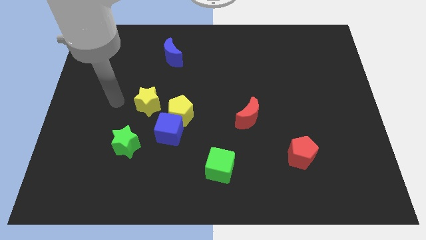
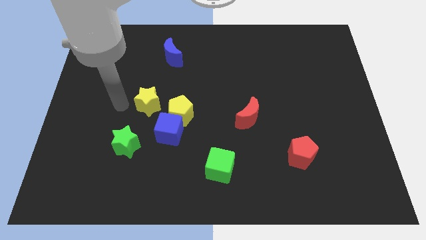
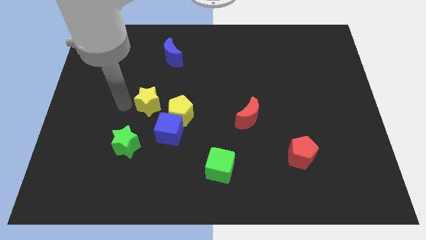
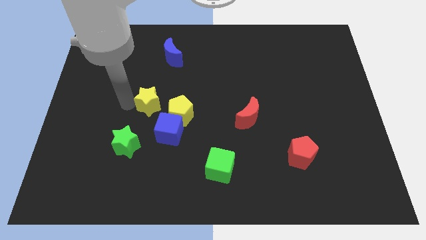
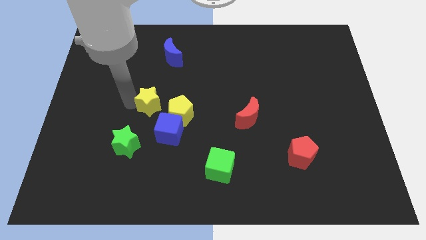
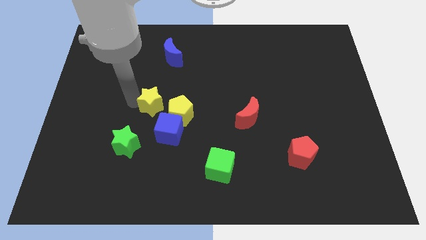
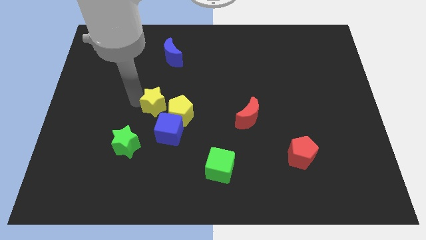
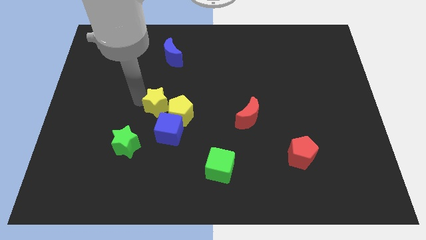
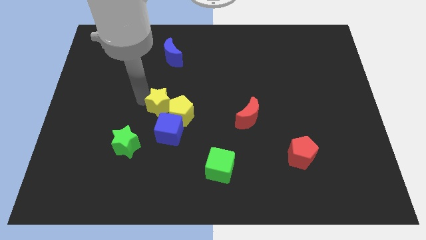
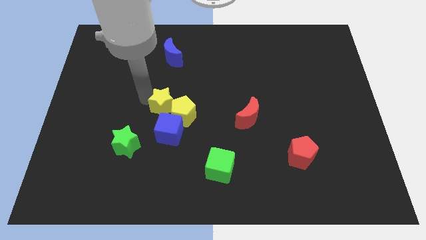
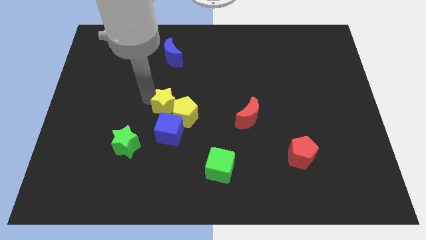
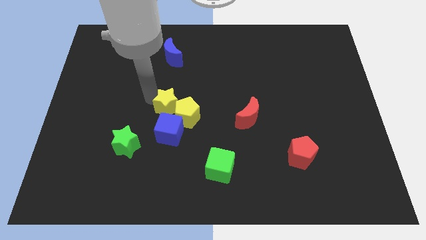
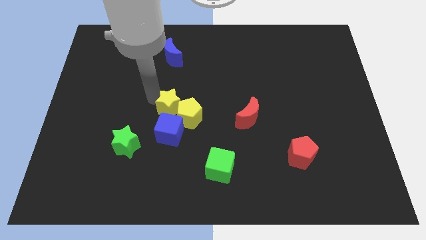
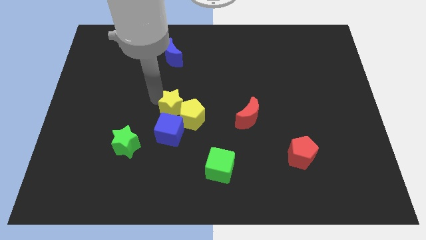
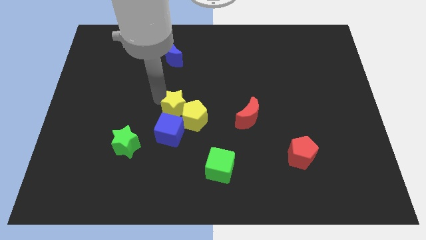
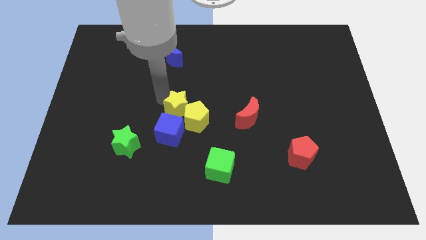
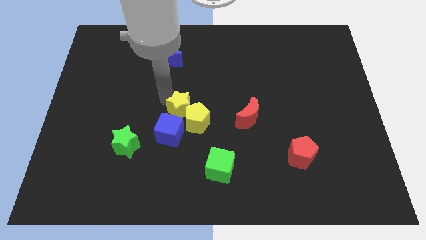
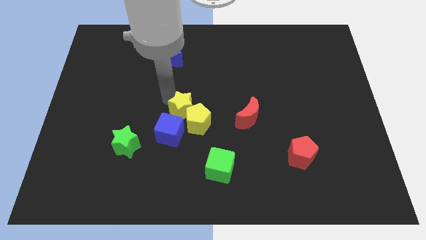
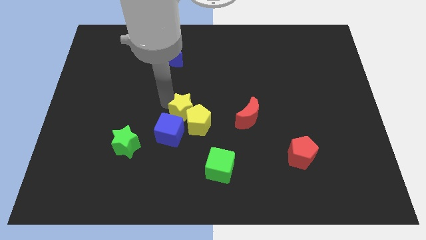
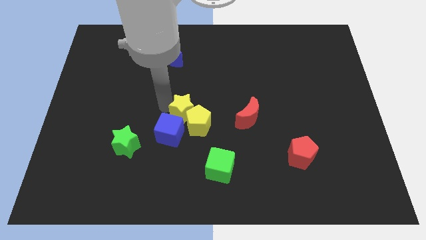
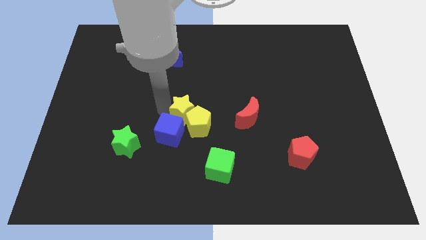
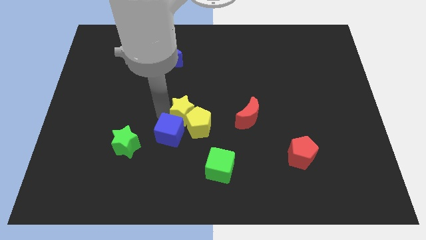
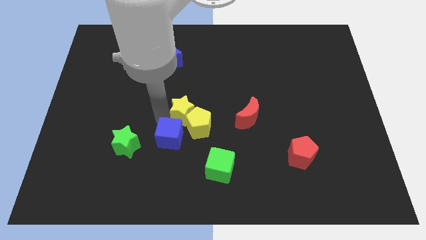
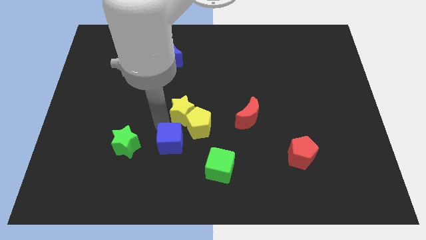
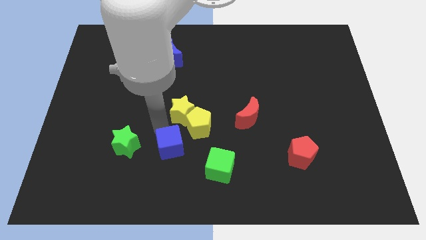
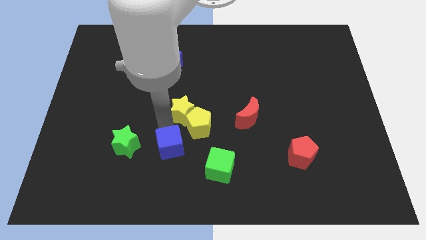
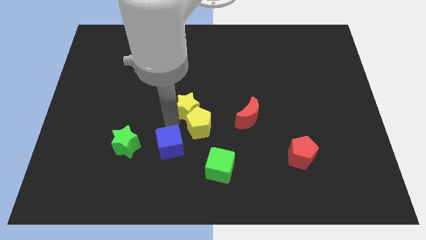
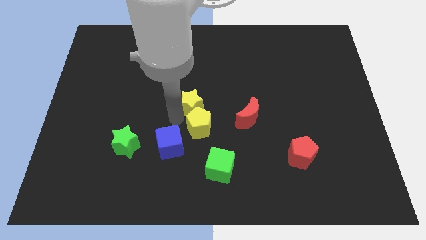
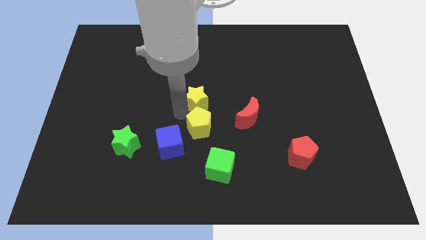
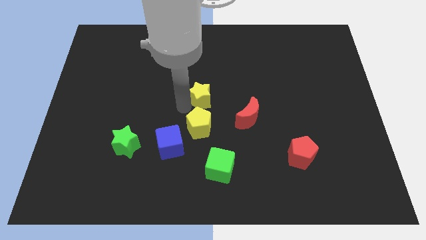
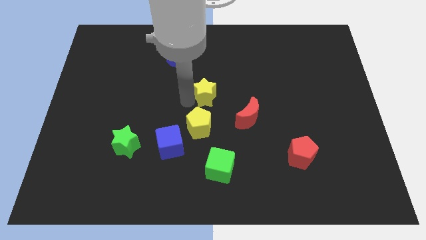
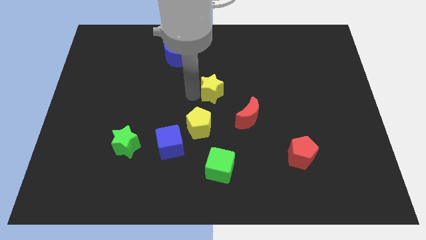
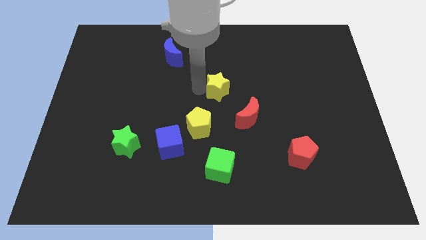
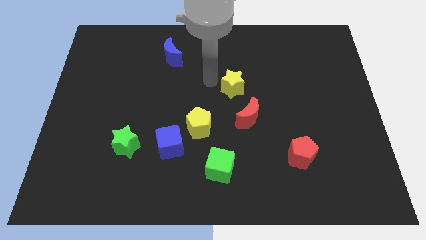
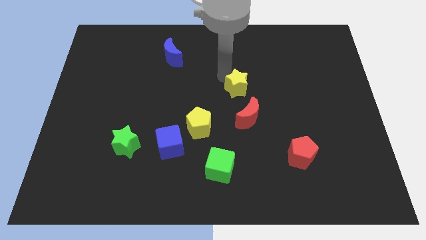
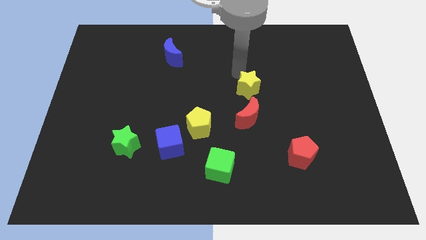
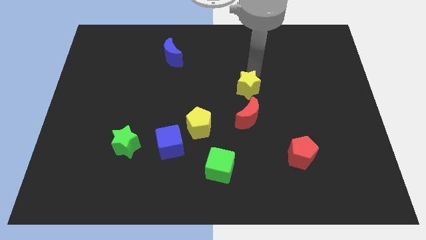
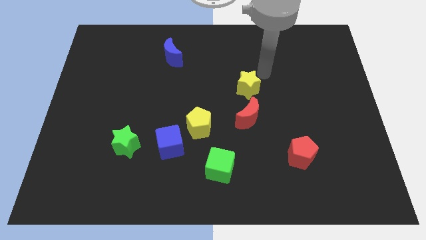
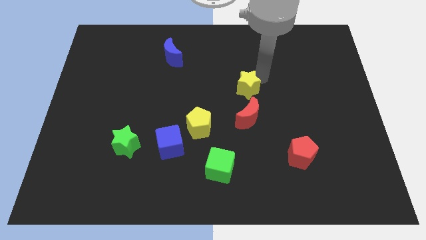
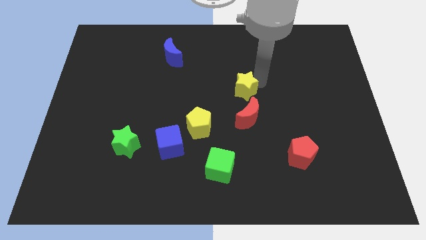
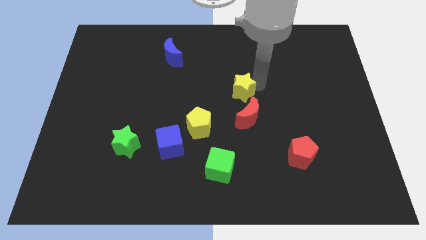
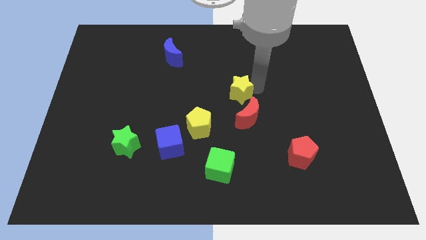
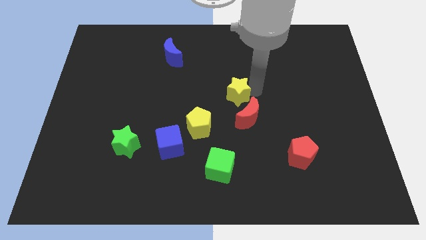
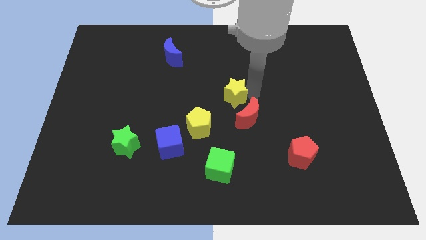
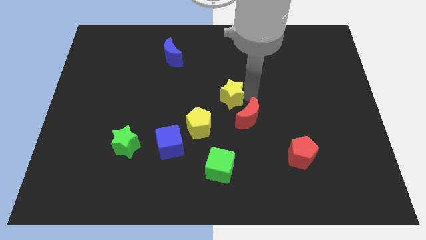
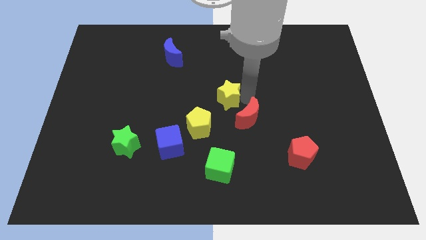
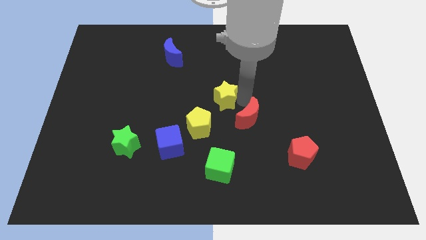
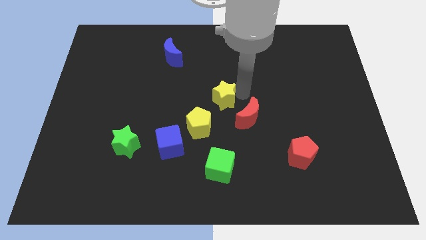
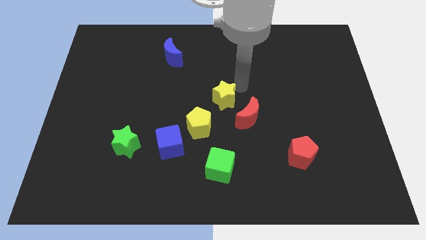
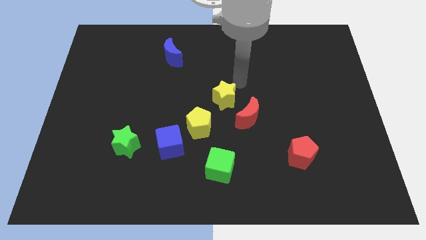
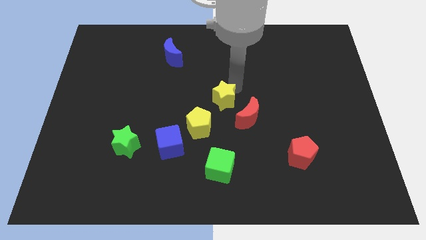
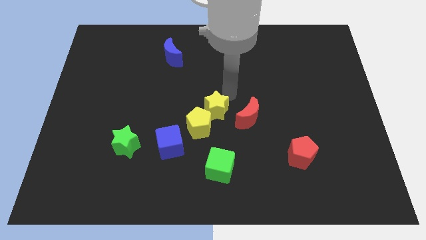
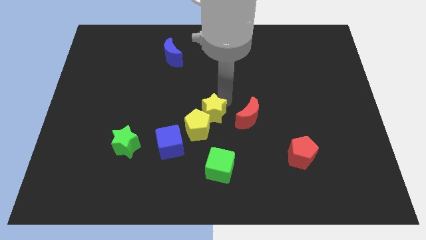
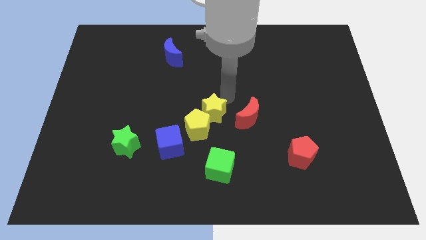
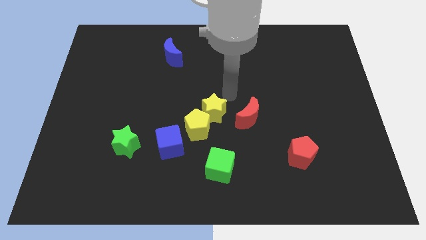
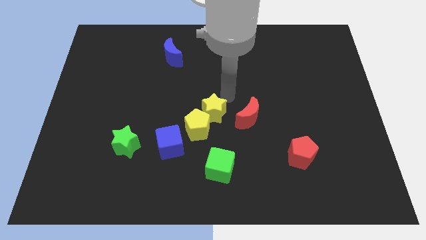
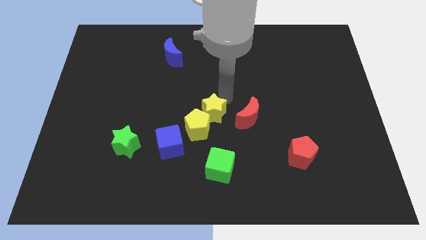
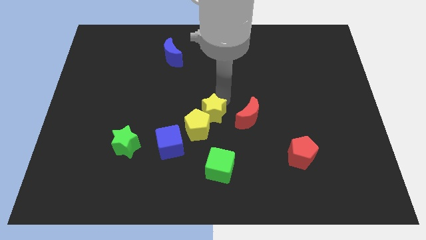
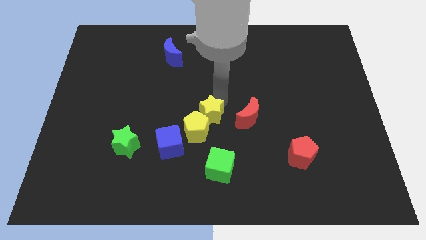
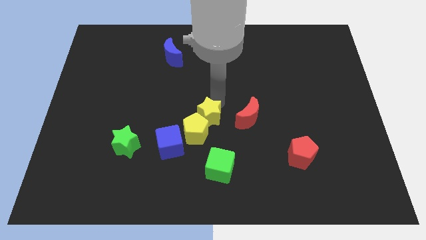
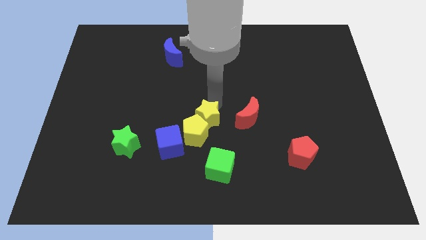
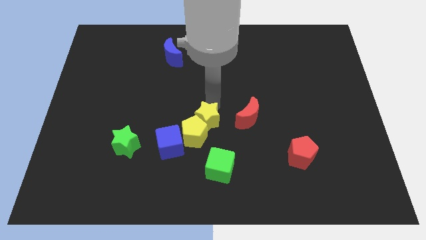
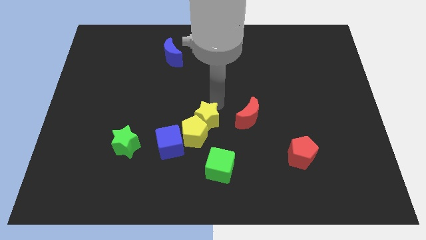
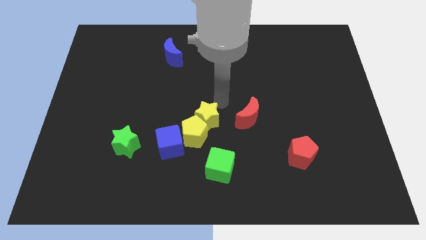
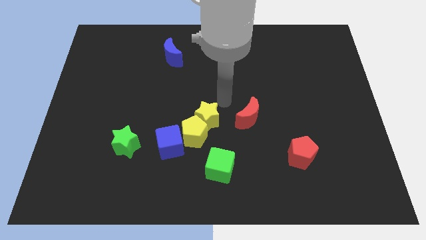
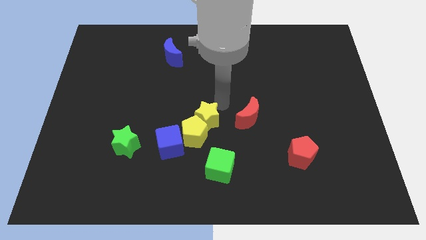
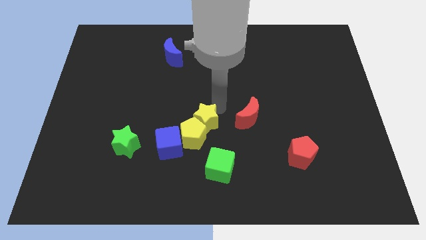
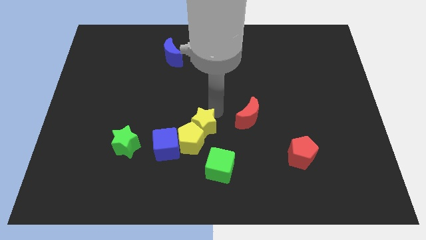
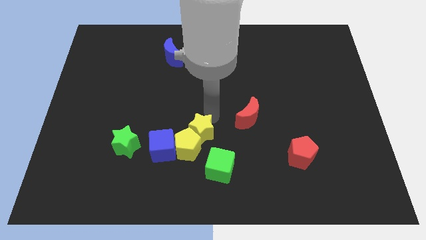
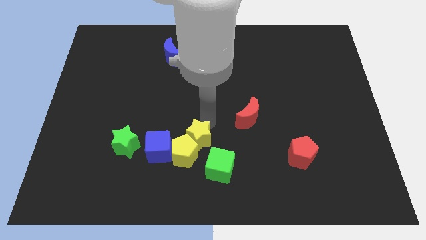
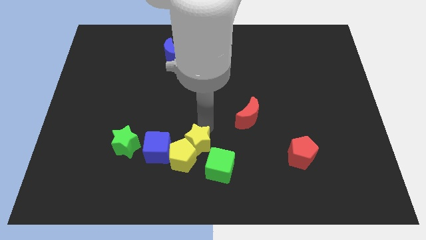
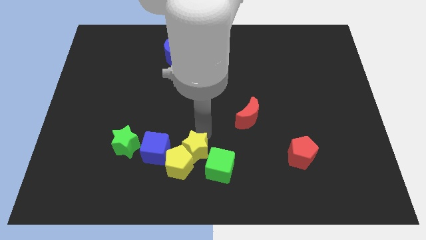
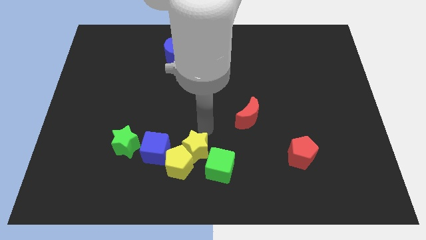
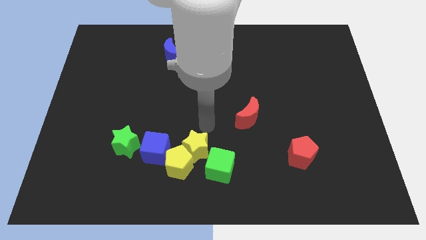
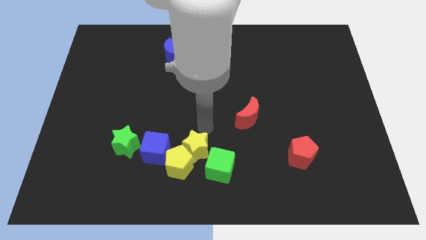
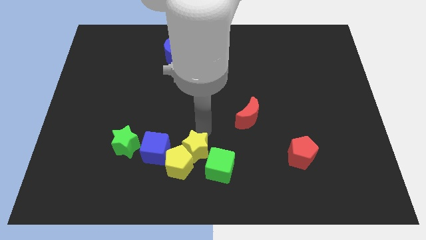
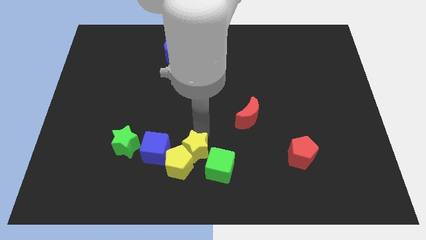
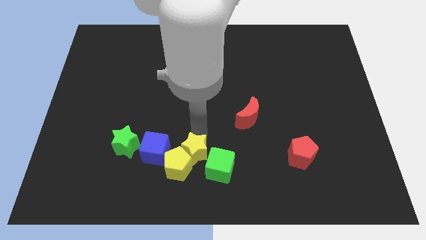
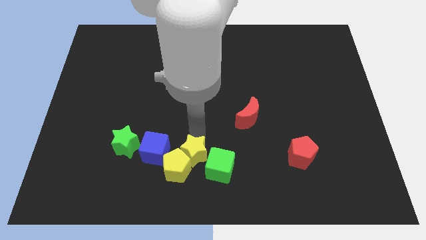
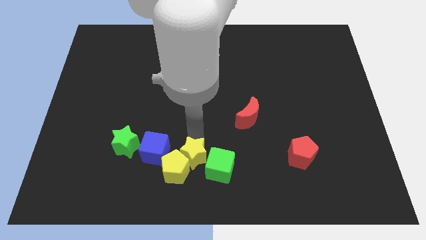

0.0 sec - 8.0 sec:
push the yellow star to the bottom side
